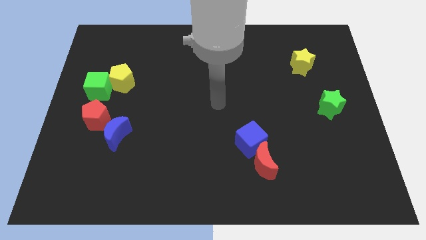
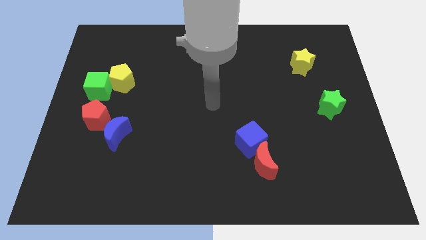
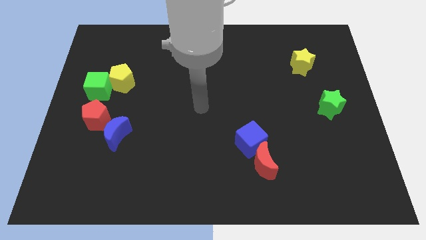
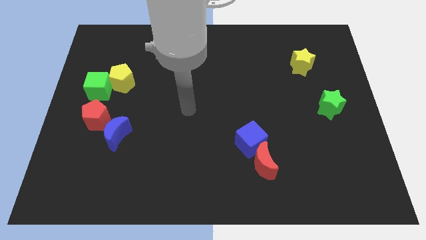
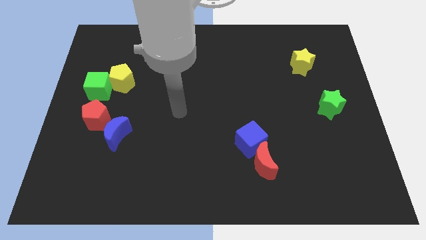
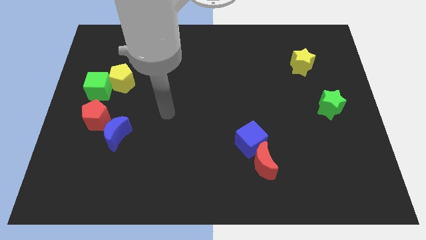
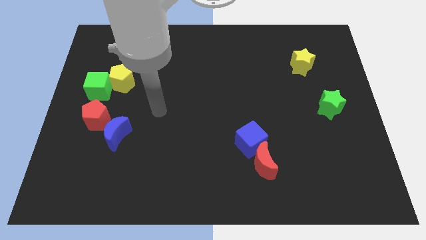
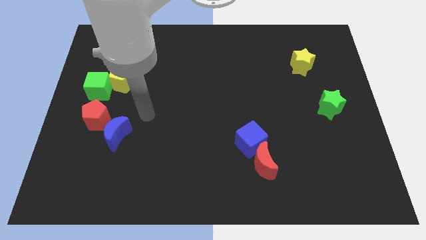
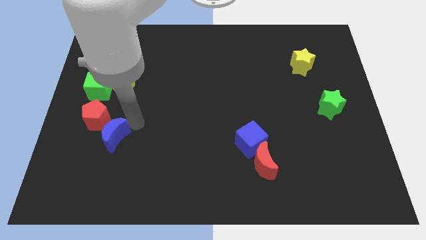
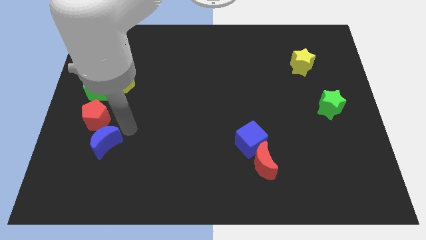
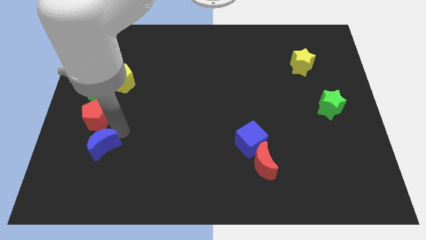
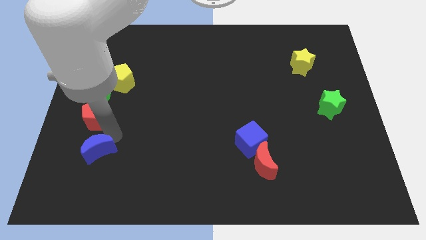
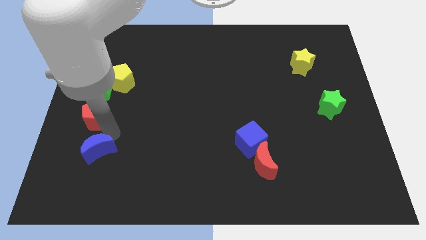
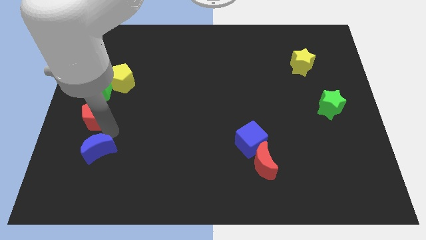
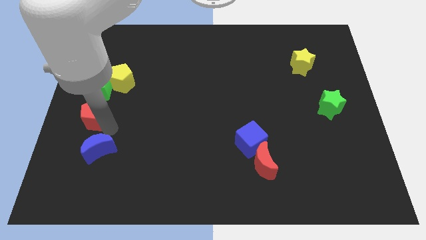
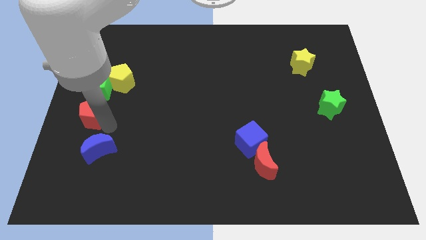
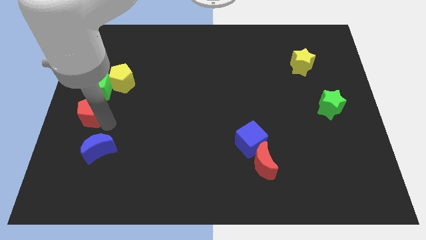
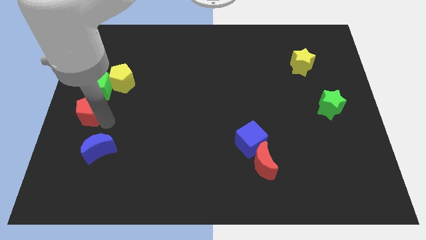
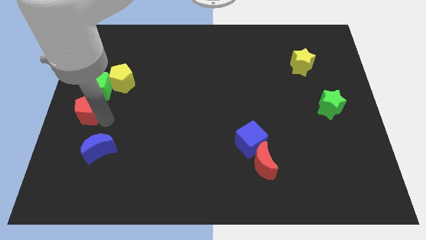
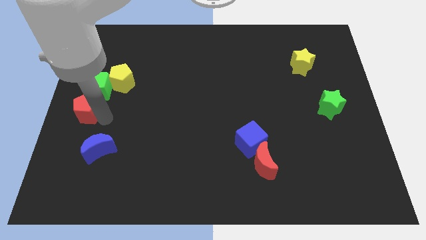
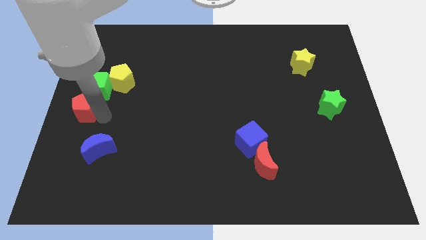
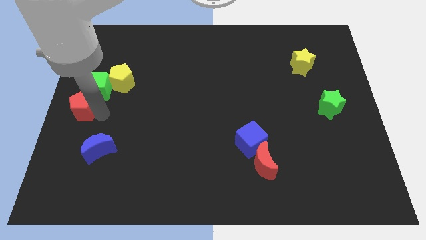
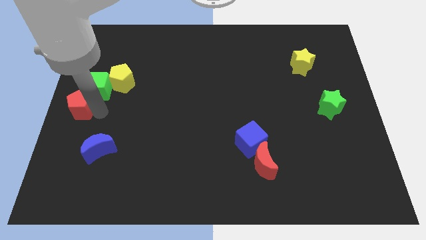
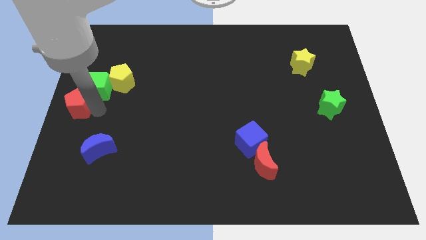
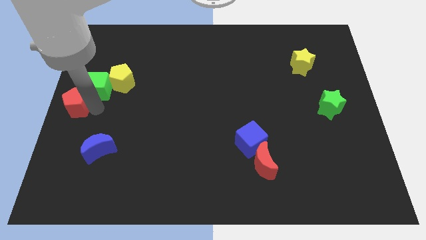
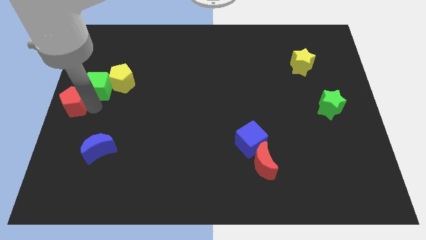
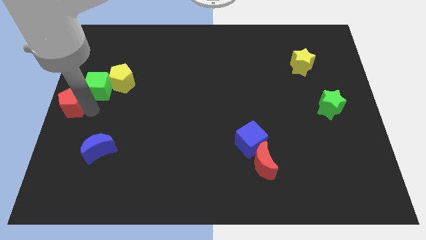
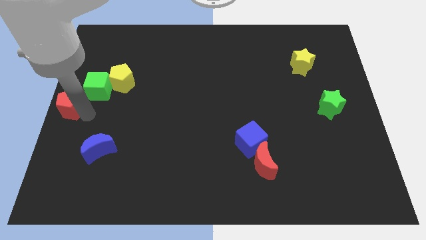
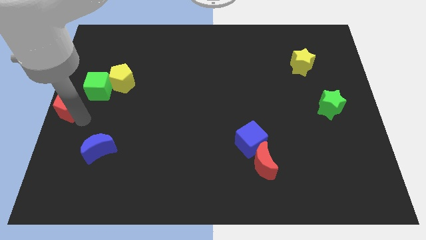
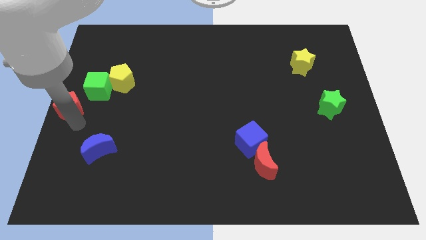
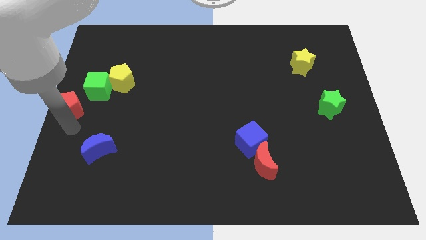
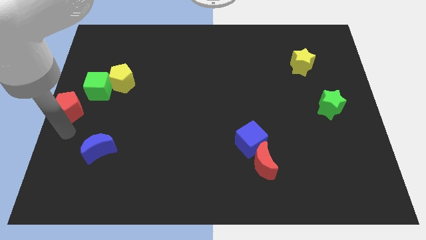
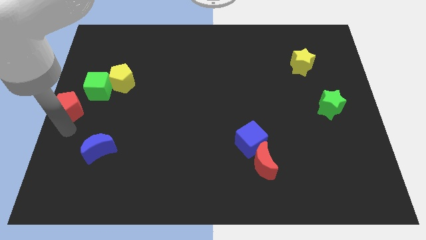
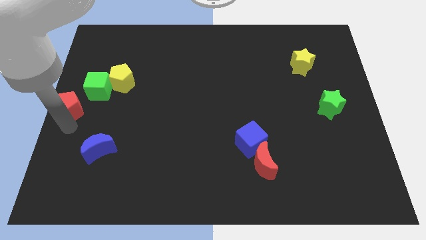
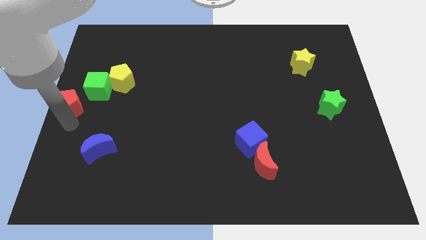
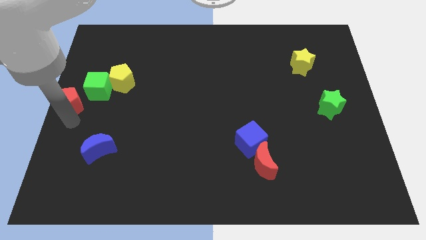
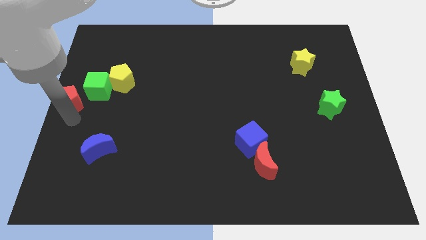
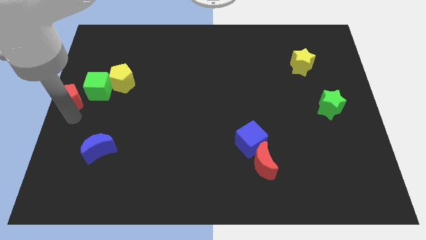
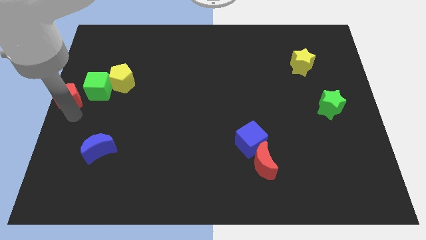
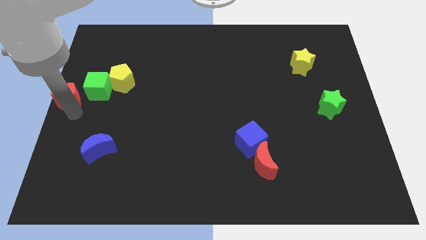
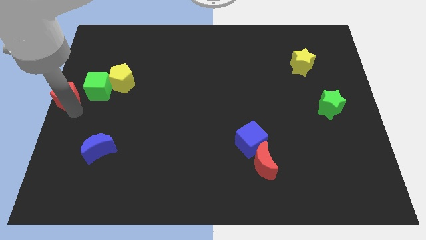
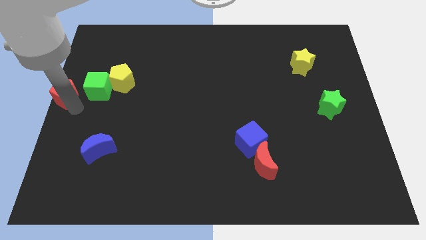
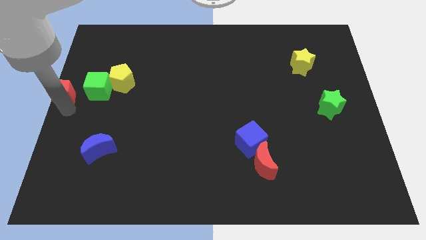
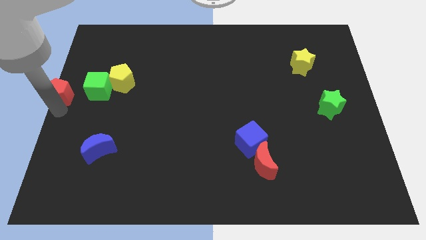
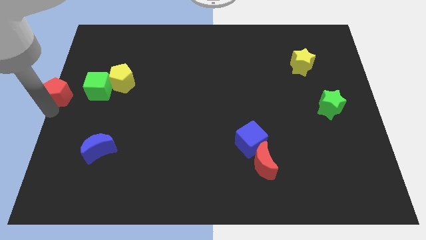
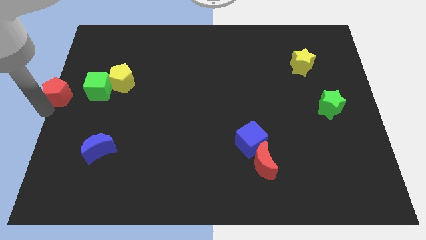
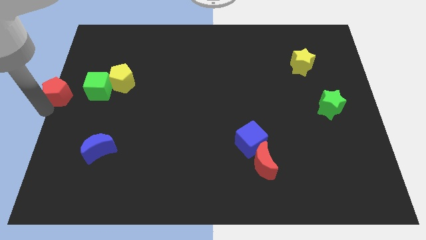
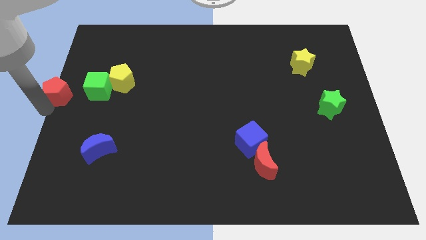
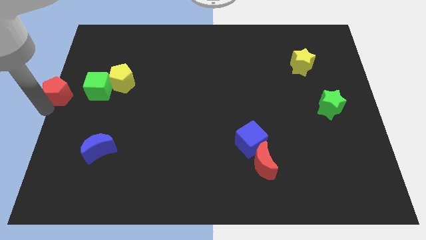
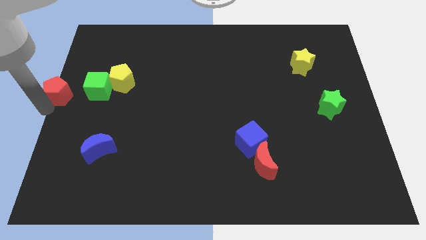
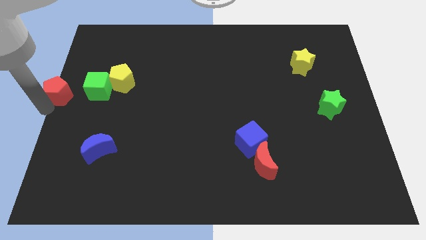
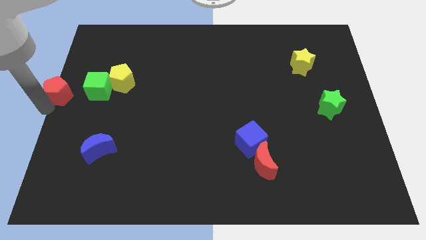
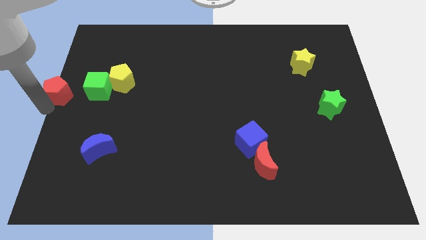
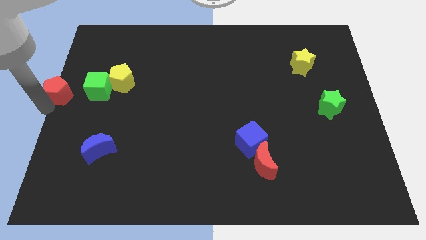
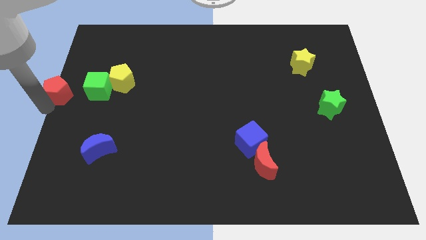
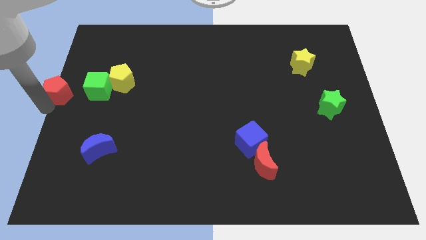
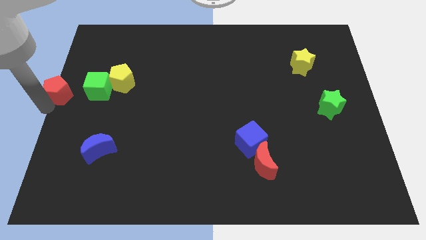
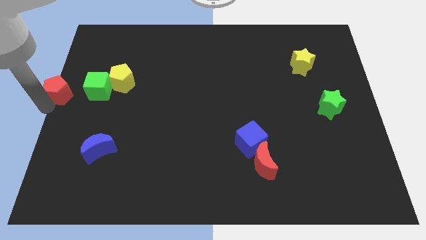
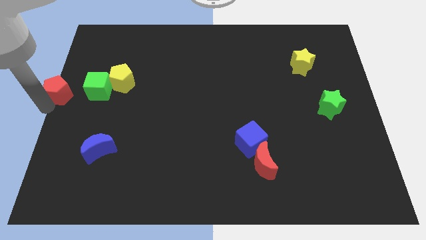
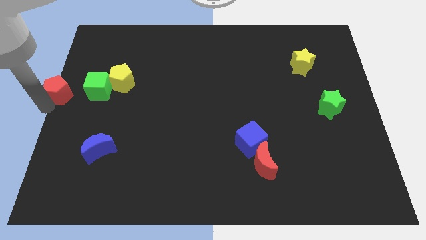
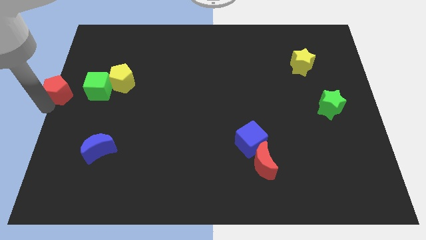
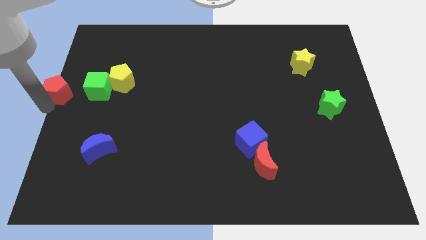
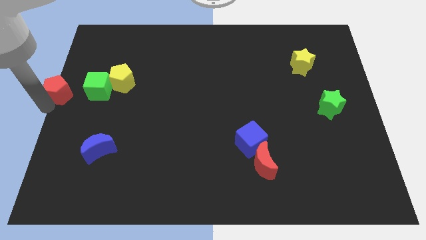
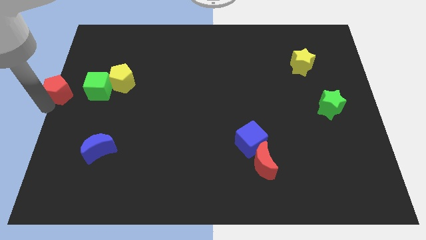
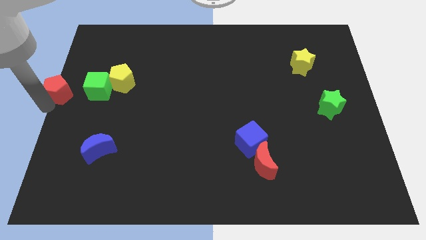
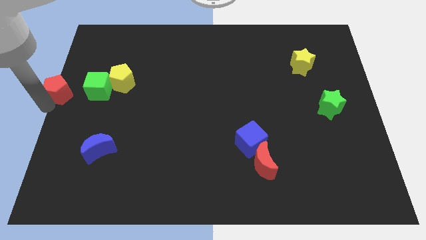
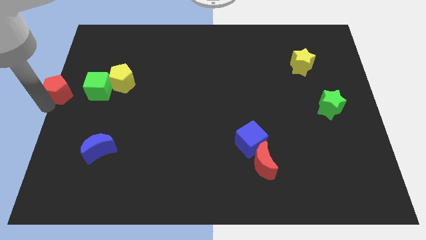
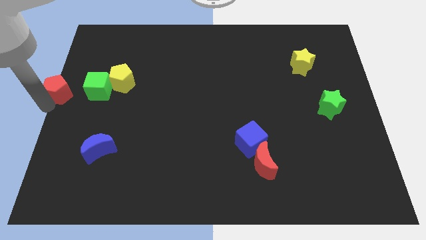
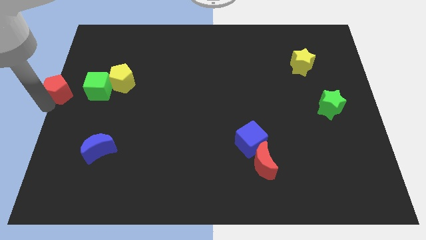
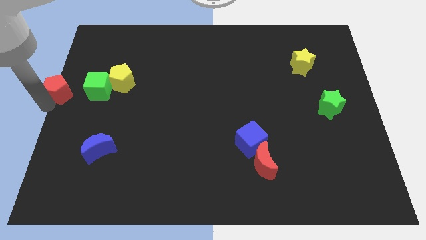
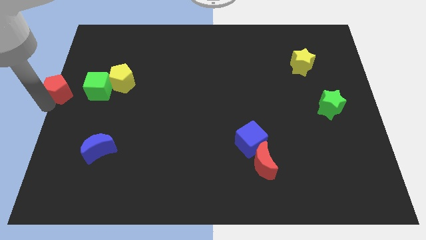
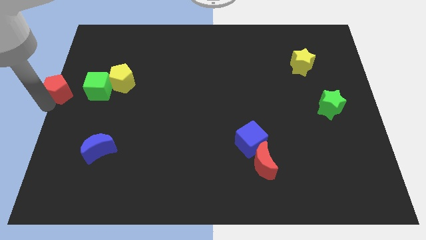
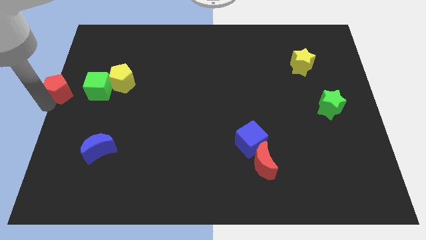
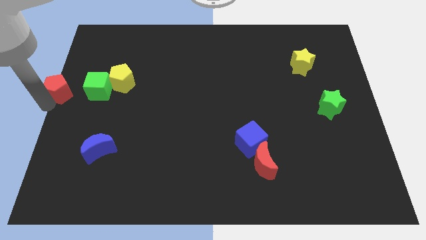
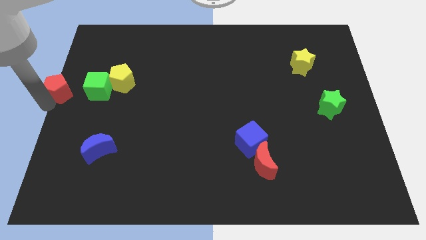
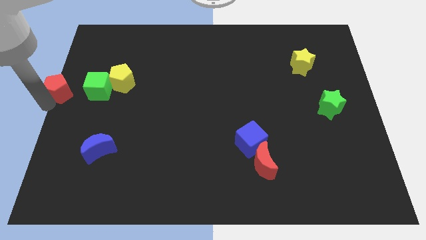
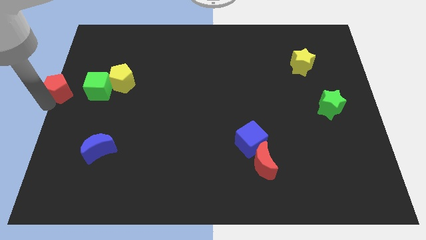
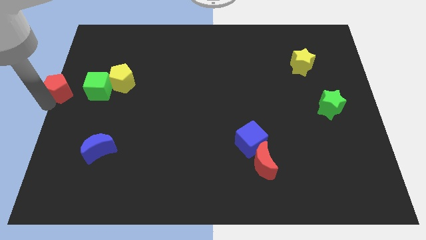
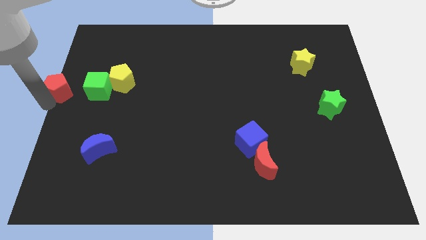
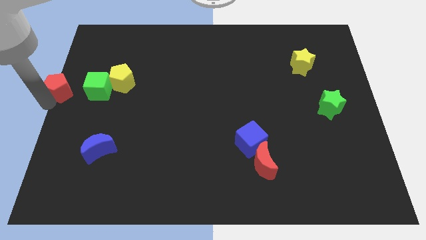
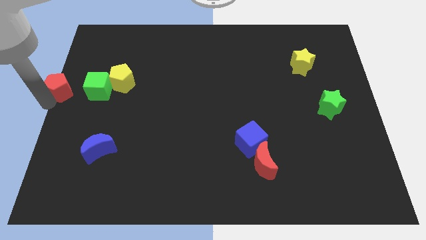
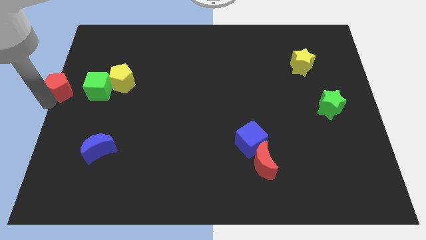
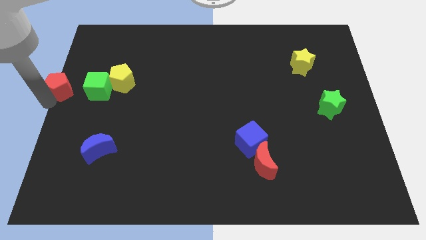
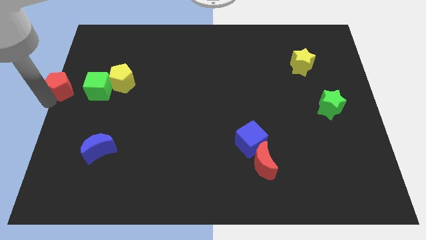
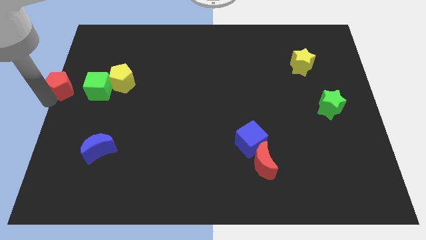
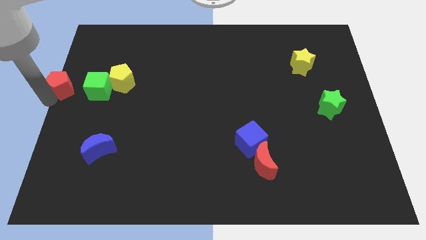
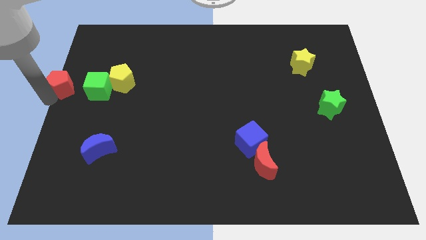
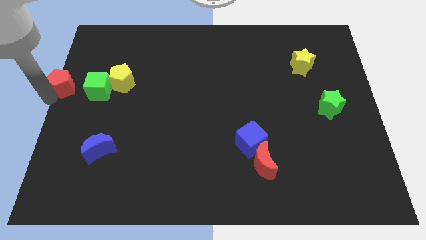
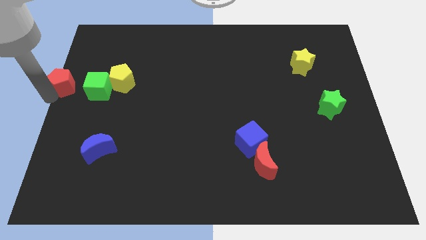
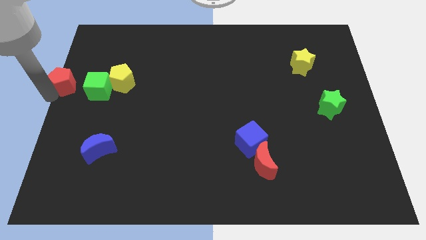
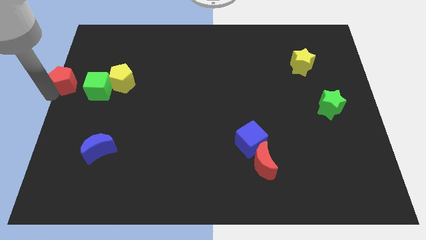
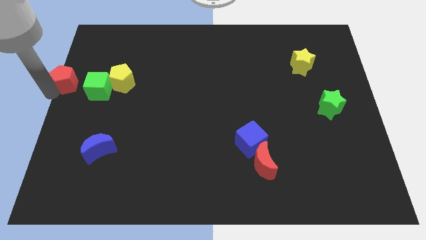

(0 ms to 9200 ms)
move the red pentagon a little upwards
